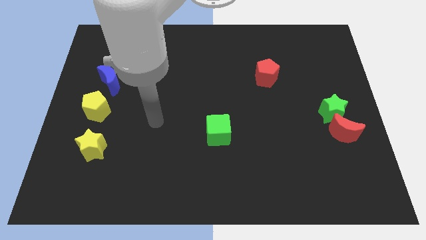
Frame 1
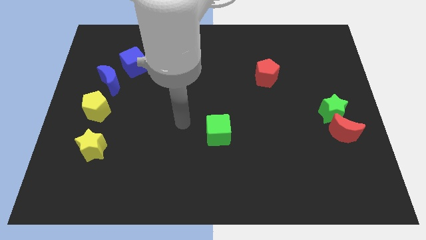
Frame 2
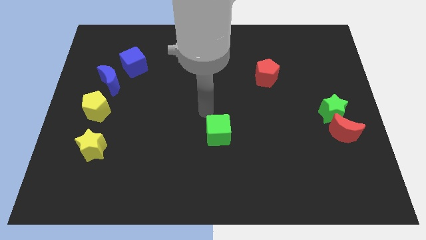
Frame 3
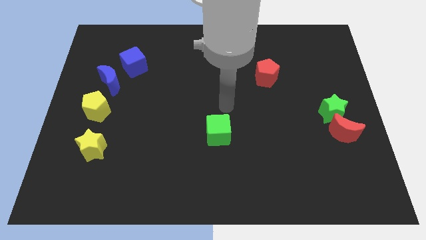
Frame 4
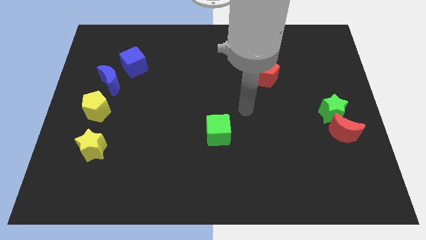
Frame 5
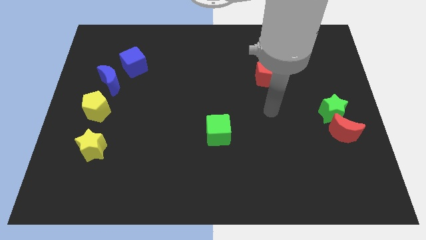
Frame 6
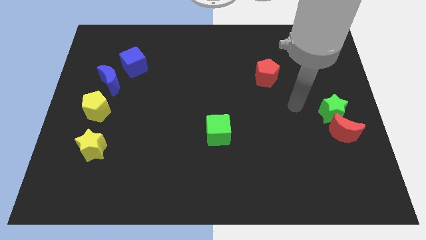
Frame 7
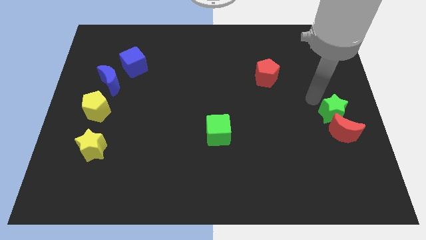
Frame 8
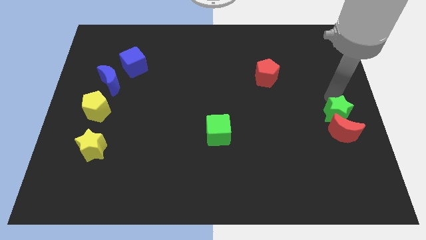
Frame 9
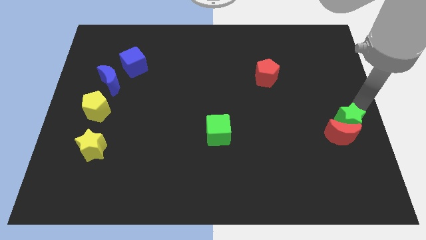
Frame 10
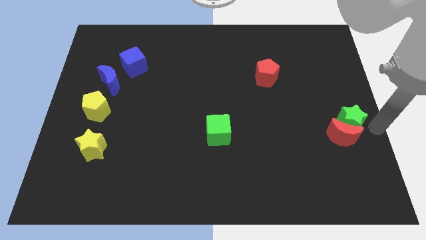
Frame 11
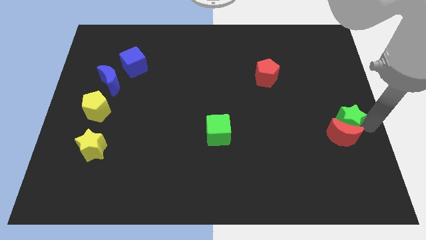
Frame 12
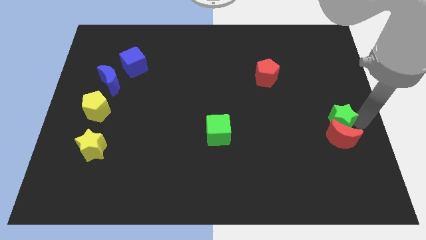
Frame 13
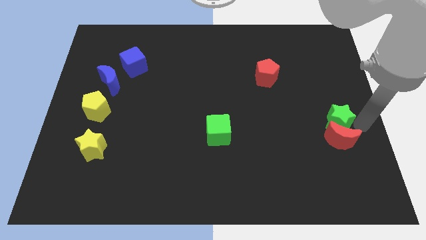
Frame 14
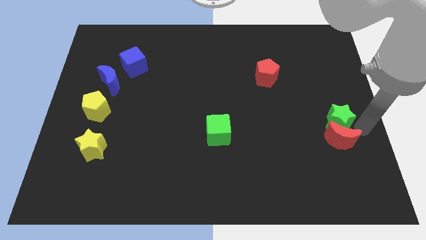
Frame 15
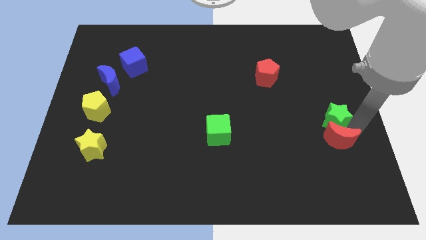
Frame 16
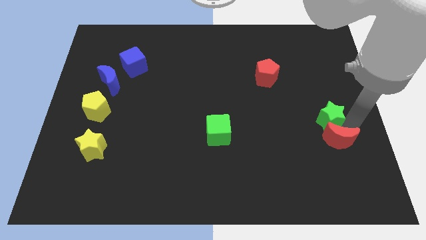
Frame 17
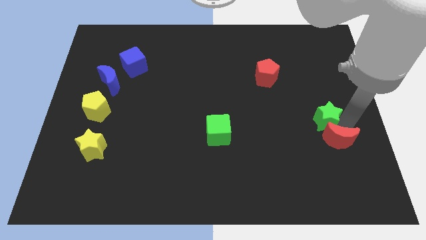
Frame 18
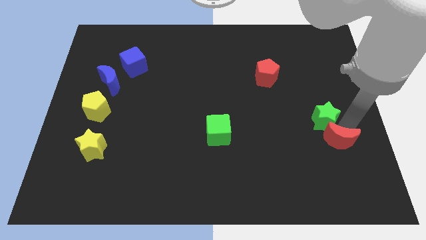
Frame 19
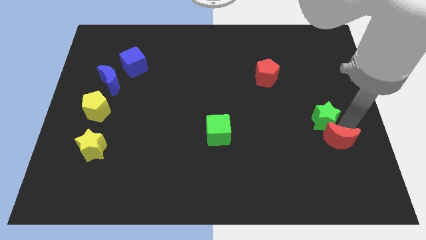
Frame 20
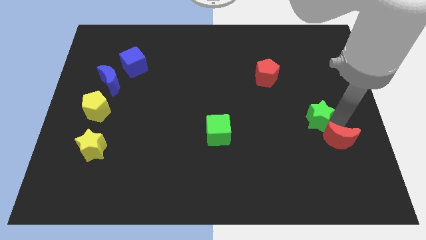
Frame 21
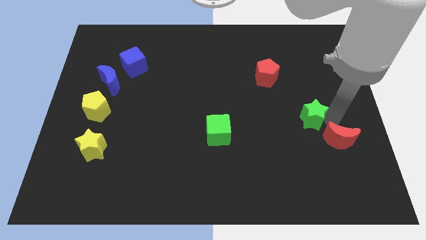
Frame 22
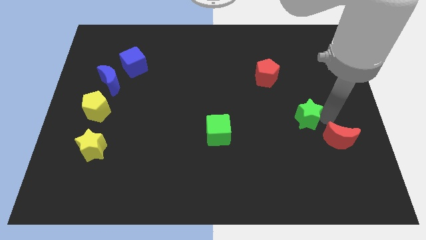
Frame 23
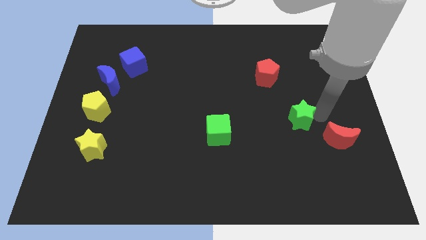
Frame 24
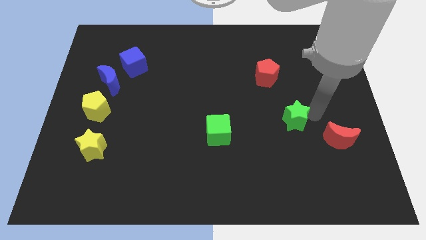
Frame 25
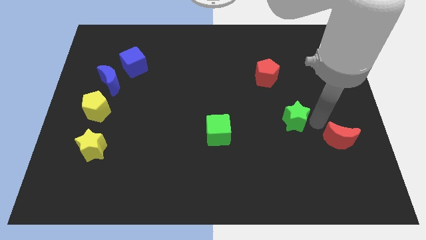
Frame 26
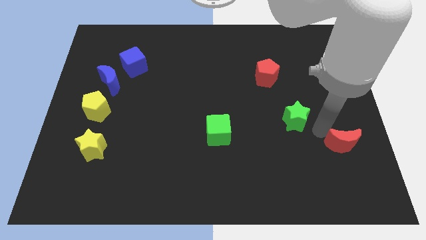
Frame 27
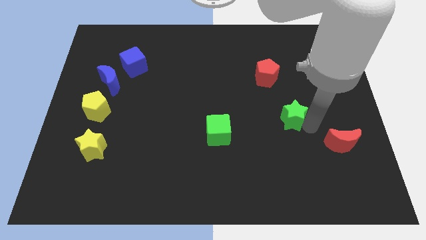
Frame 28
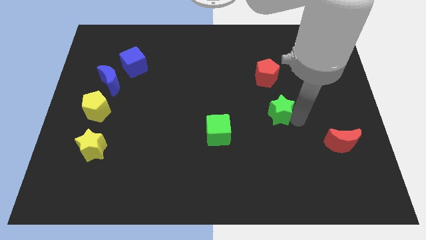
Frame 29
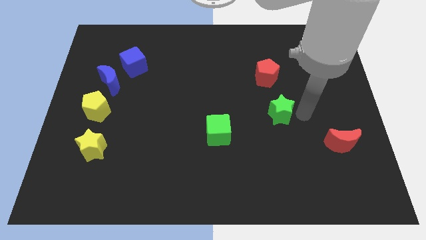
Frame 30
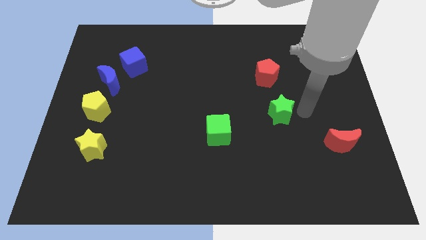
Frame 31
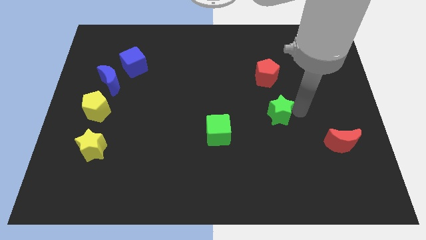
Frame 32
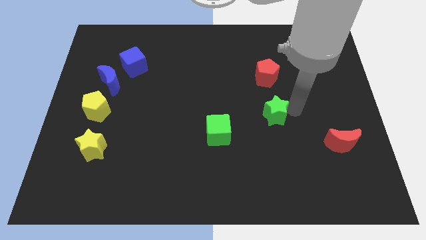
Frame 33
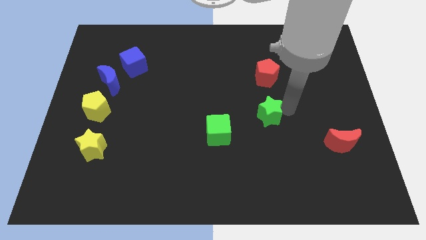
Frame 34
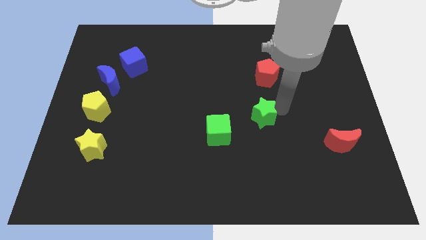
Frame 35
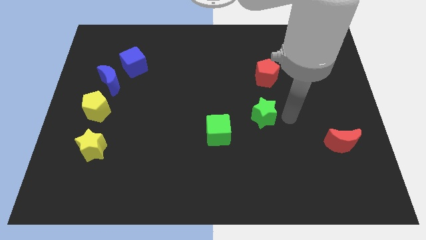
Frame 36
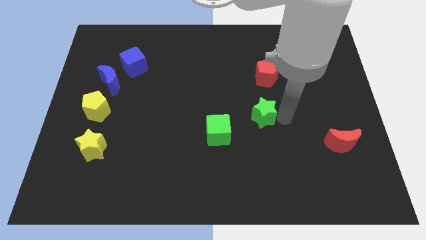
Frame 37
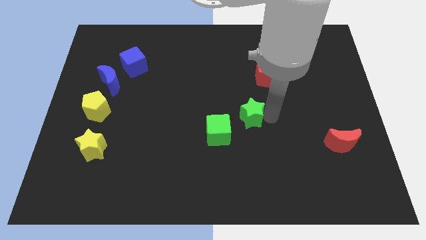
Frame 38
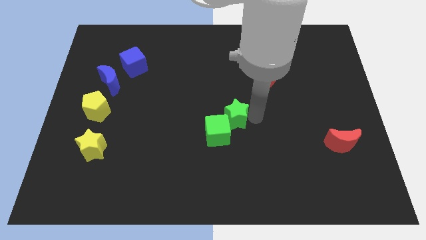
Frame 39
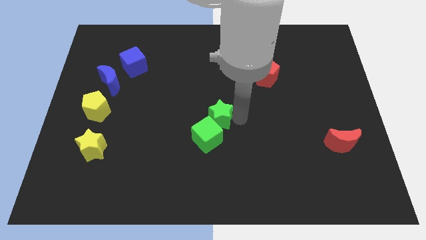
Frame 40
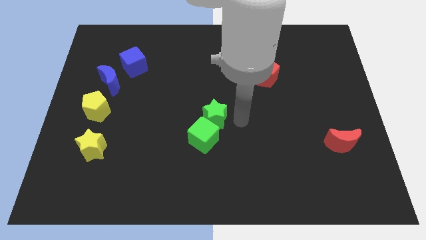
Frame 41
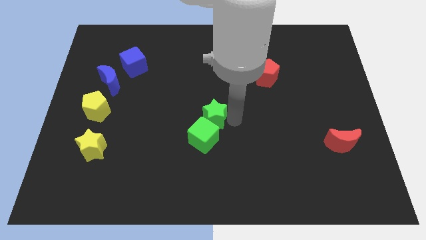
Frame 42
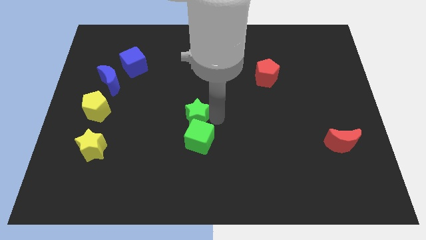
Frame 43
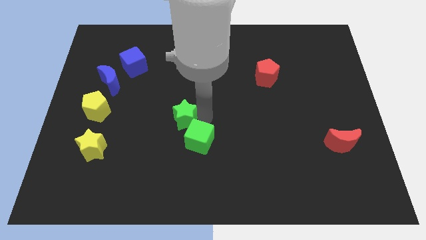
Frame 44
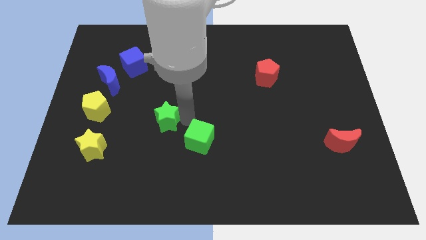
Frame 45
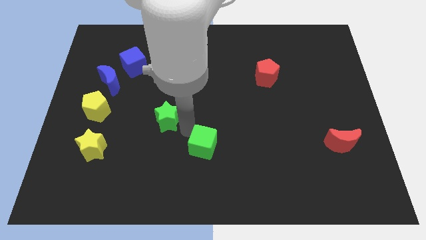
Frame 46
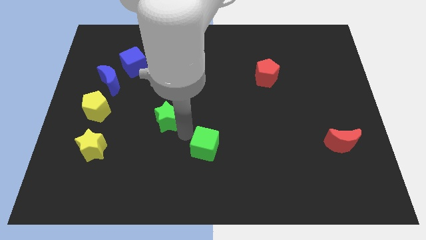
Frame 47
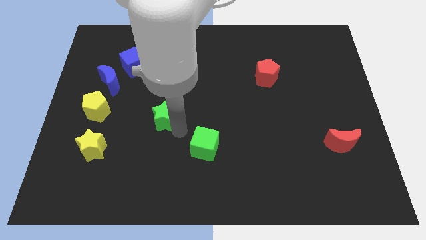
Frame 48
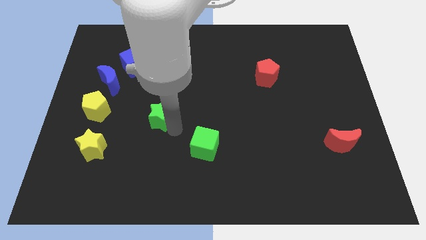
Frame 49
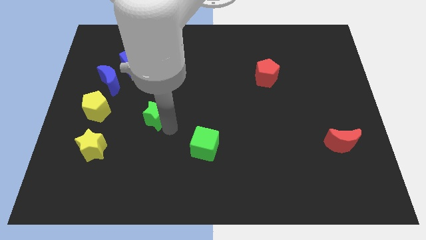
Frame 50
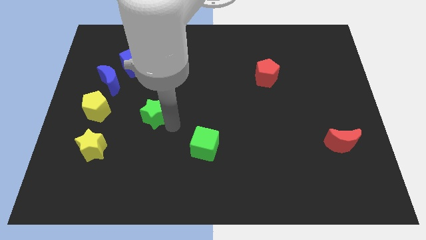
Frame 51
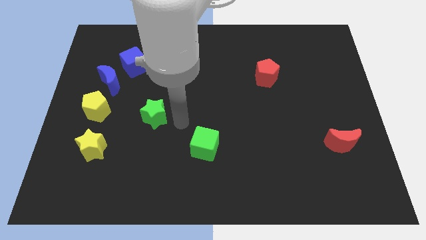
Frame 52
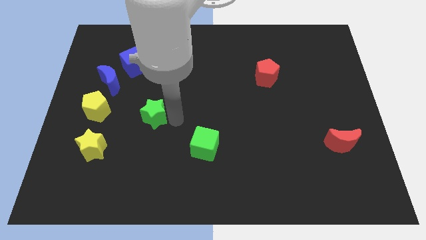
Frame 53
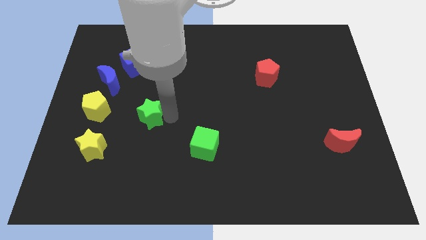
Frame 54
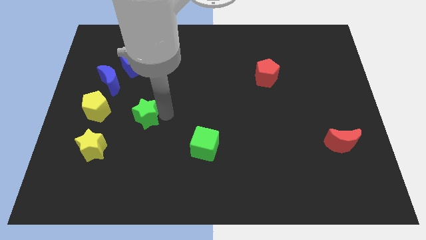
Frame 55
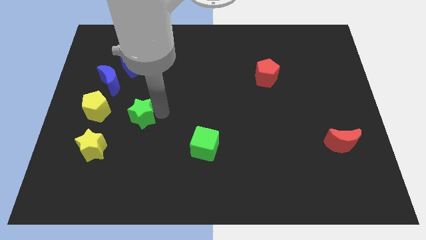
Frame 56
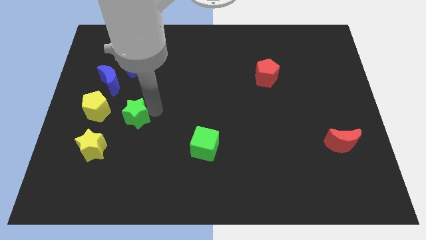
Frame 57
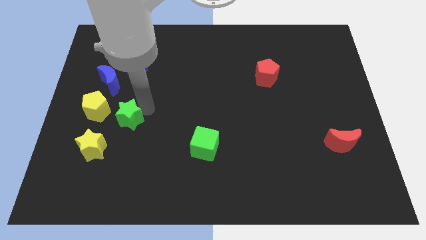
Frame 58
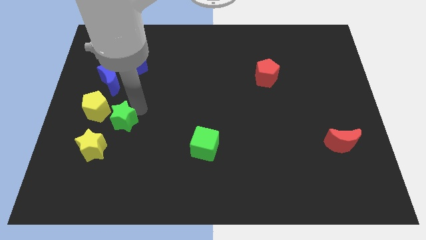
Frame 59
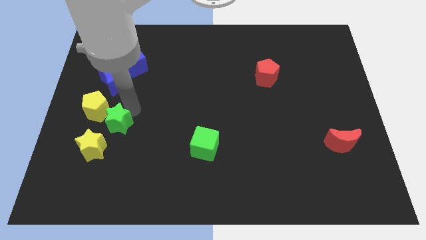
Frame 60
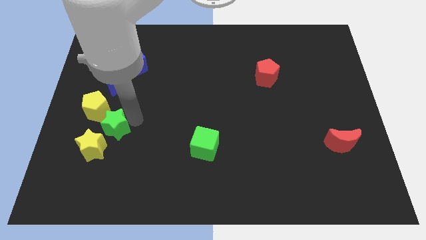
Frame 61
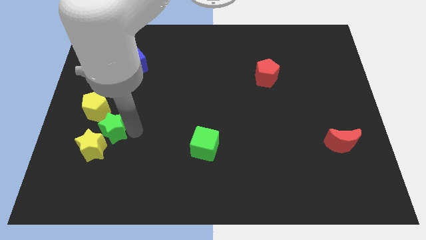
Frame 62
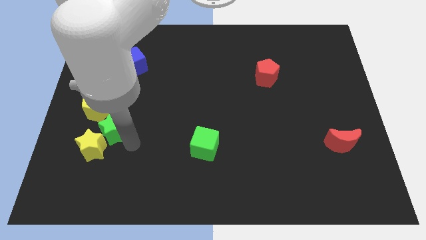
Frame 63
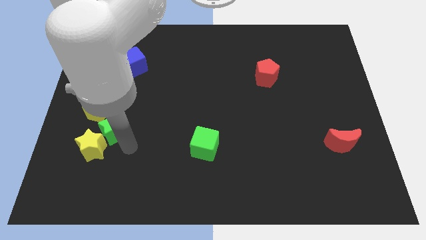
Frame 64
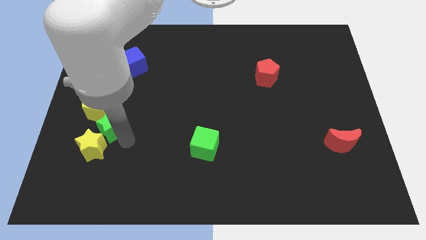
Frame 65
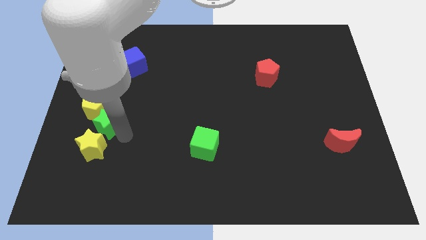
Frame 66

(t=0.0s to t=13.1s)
push the green star towards the yellow pentagon

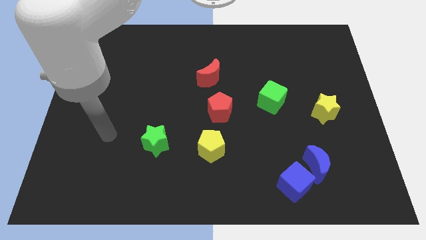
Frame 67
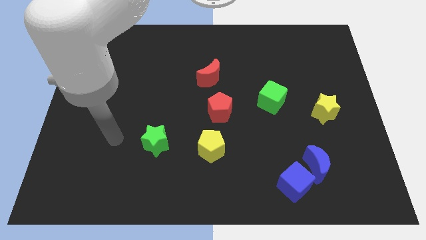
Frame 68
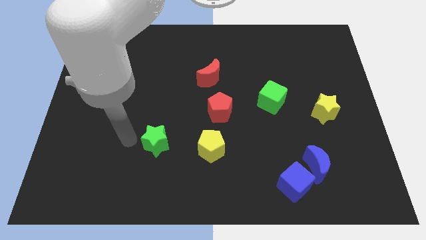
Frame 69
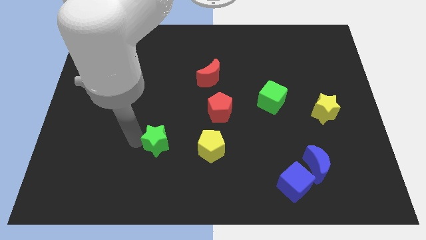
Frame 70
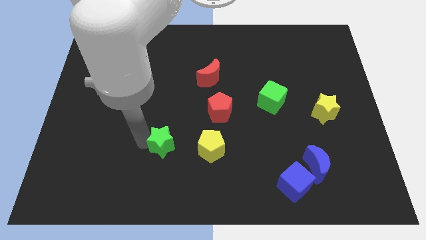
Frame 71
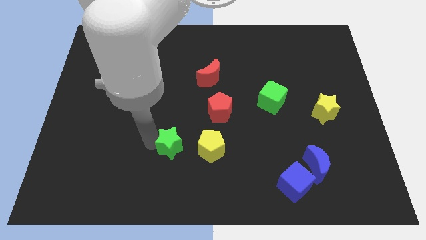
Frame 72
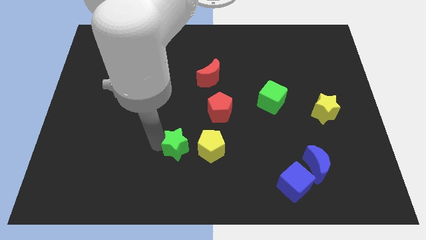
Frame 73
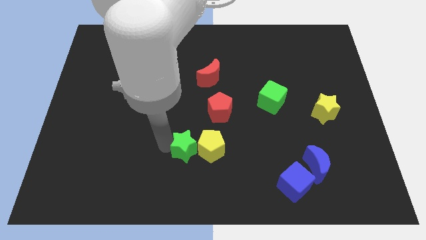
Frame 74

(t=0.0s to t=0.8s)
slide the green star to the yellow pentagon
